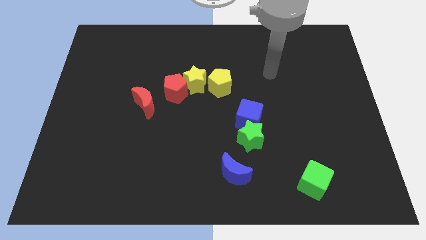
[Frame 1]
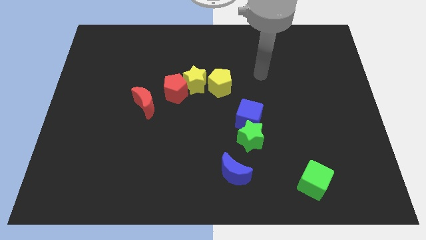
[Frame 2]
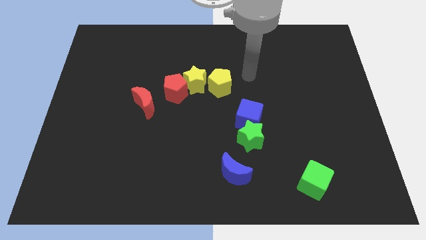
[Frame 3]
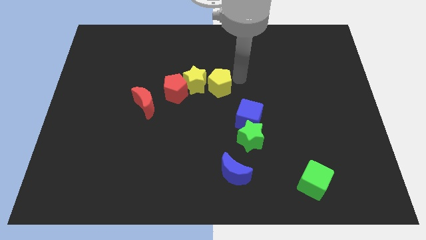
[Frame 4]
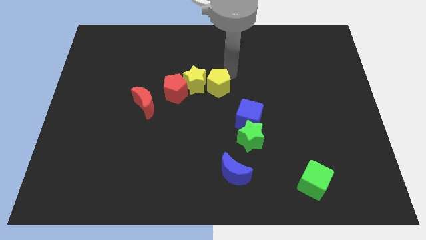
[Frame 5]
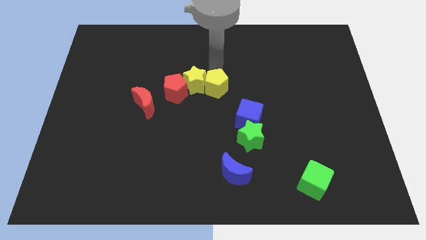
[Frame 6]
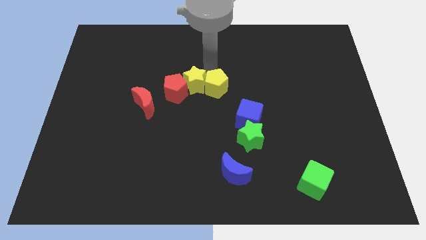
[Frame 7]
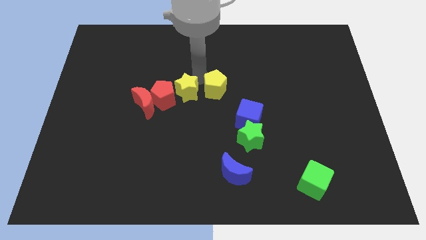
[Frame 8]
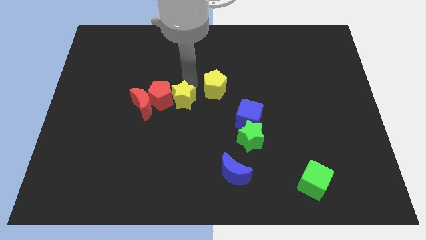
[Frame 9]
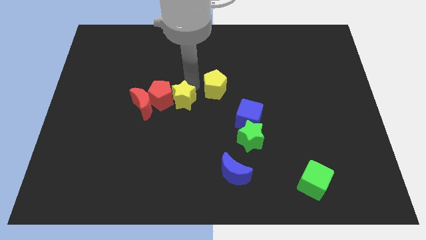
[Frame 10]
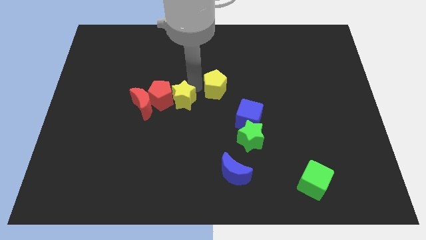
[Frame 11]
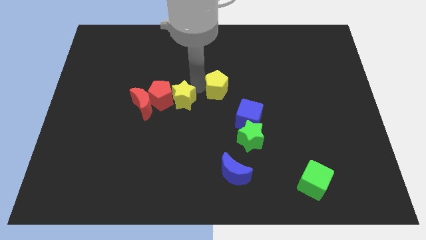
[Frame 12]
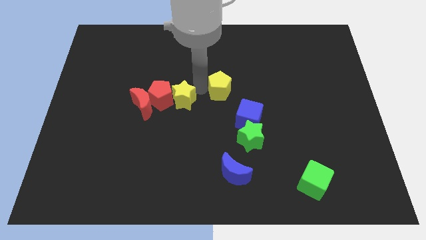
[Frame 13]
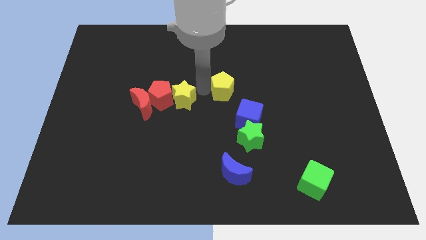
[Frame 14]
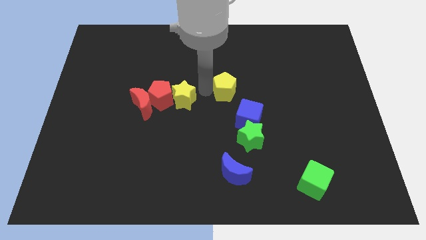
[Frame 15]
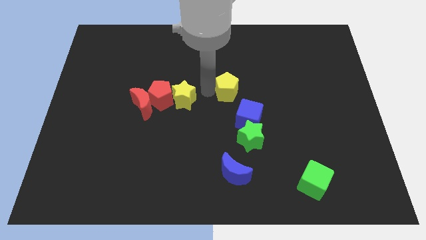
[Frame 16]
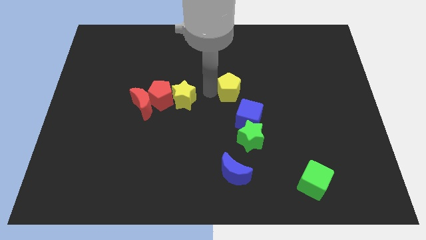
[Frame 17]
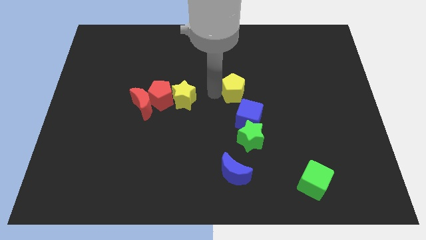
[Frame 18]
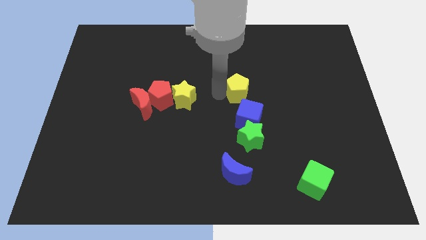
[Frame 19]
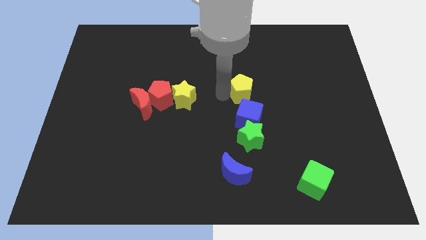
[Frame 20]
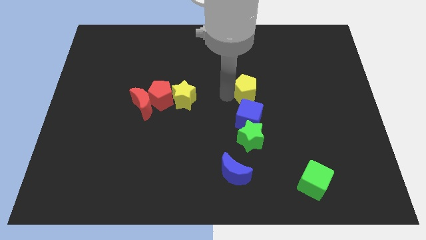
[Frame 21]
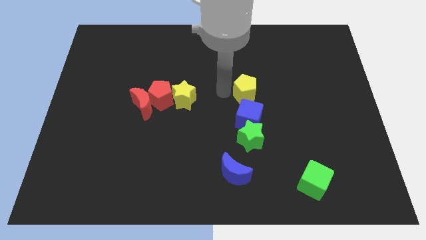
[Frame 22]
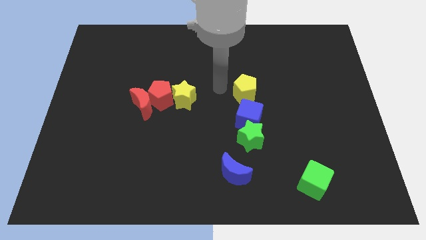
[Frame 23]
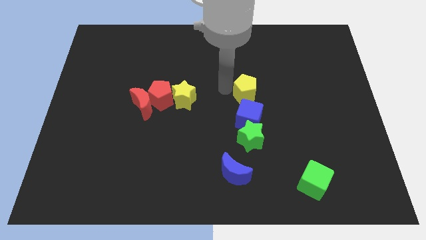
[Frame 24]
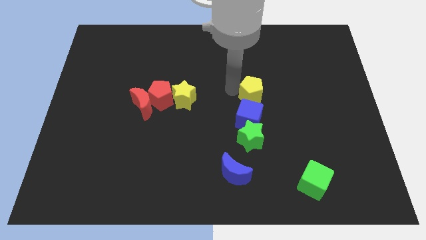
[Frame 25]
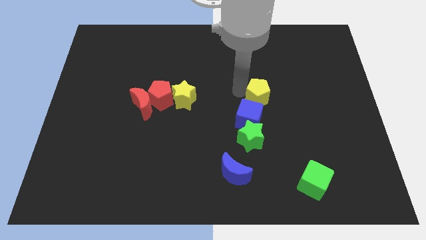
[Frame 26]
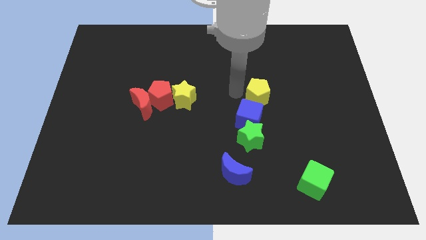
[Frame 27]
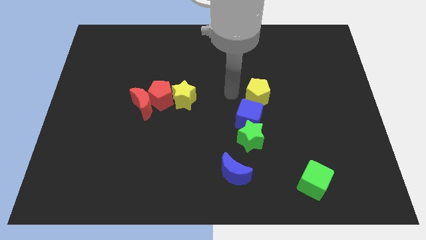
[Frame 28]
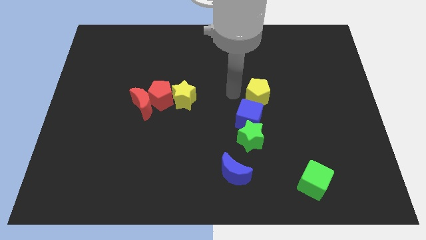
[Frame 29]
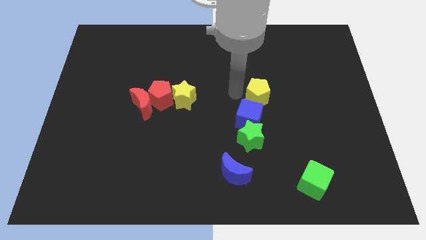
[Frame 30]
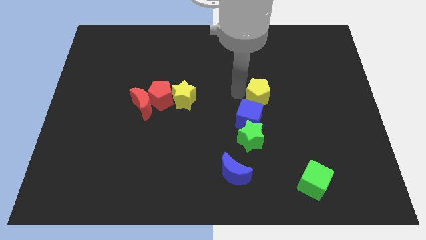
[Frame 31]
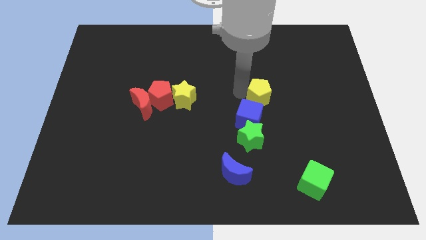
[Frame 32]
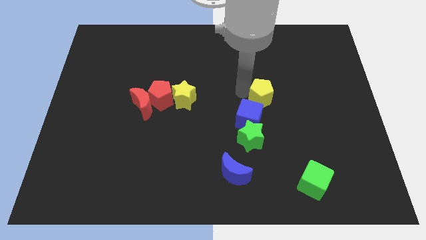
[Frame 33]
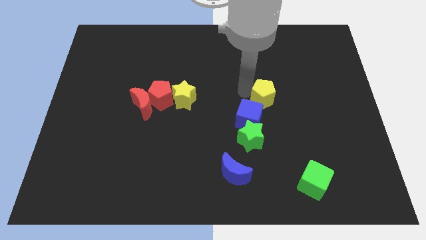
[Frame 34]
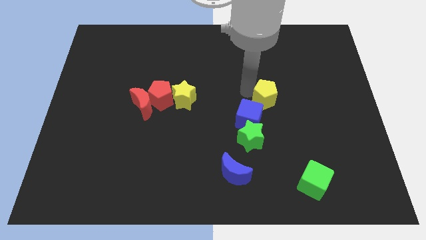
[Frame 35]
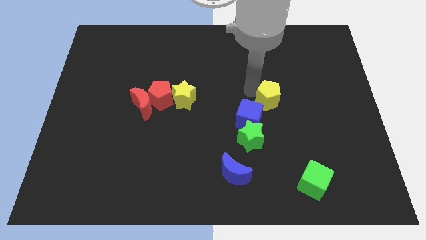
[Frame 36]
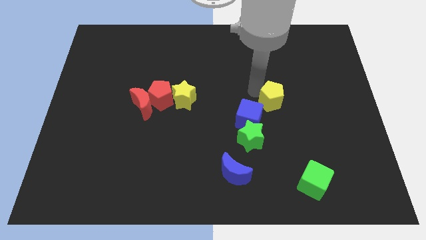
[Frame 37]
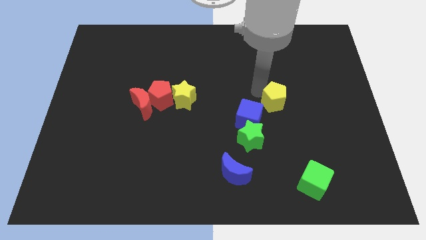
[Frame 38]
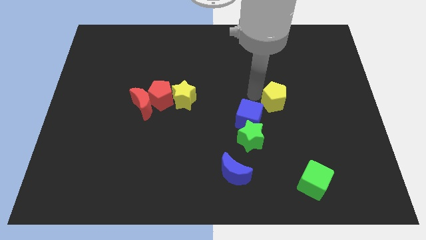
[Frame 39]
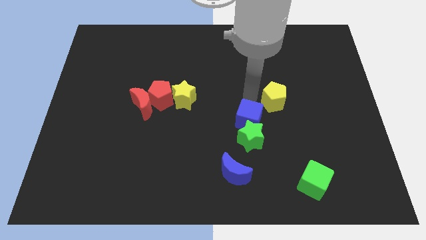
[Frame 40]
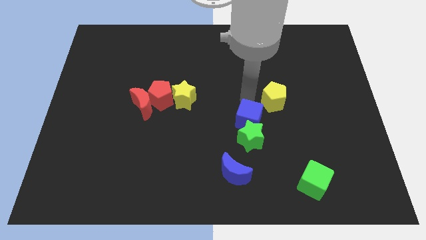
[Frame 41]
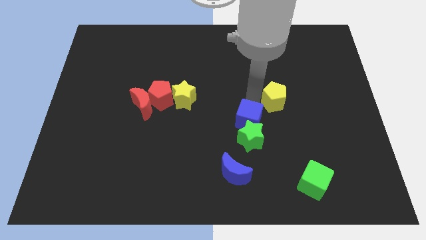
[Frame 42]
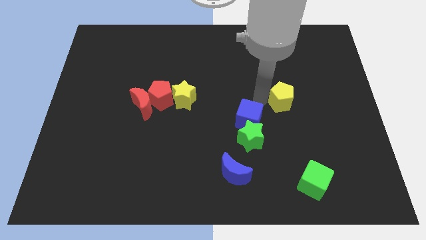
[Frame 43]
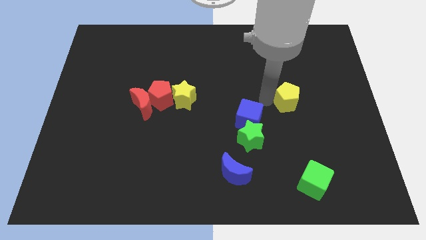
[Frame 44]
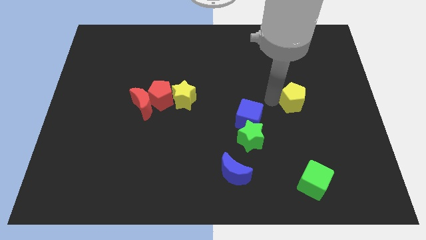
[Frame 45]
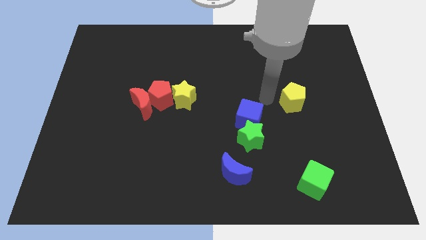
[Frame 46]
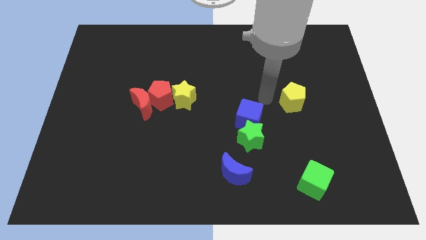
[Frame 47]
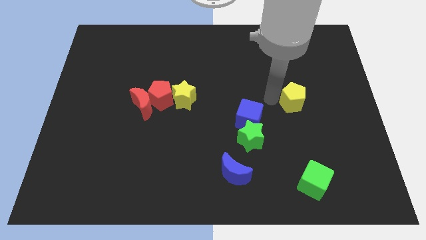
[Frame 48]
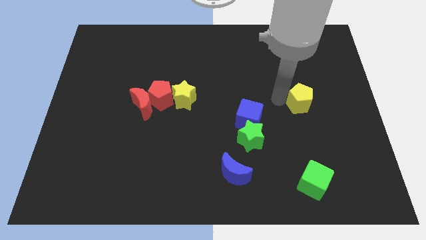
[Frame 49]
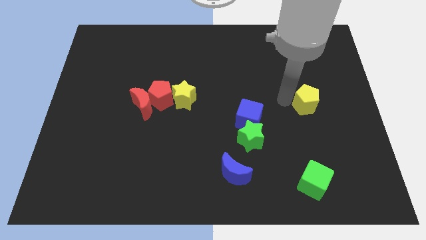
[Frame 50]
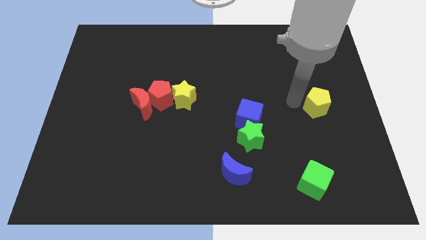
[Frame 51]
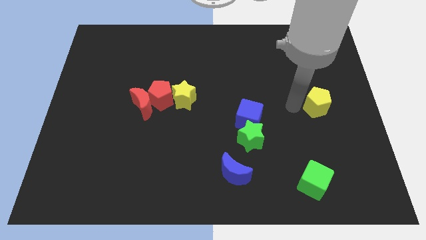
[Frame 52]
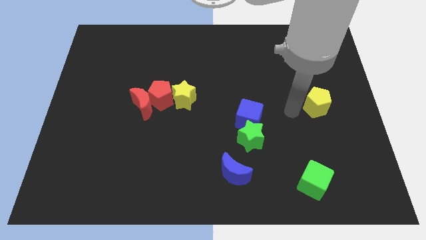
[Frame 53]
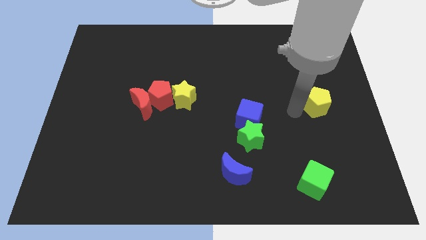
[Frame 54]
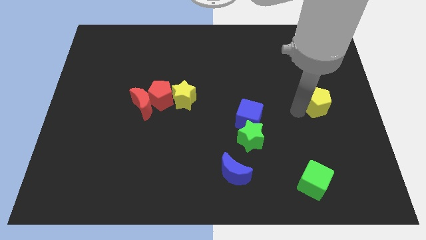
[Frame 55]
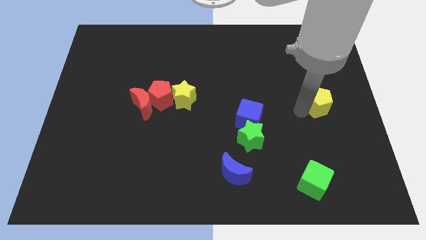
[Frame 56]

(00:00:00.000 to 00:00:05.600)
move the yellow pentagon to the center right

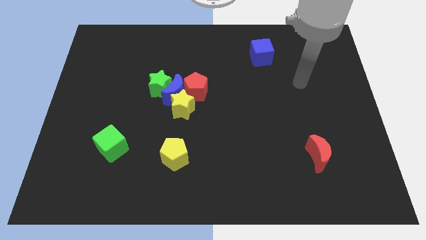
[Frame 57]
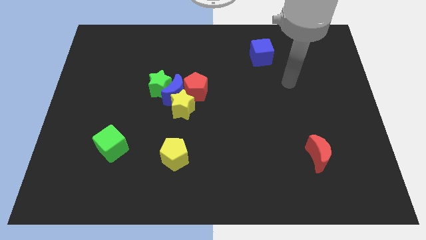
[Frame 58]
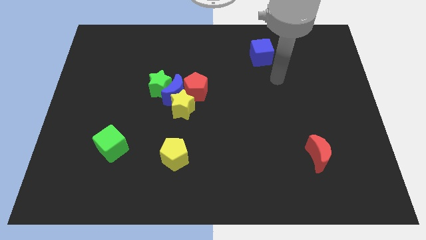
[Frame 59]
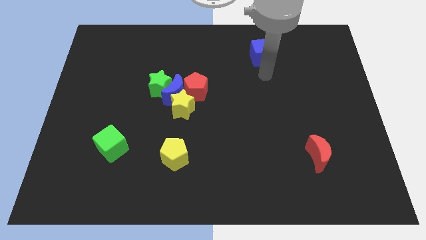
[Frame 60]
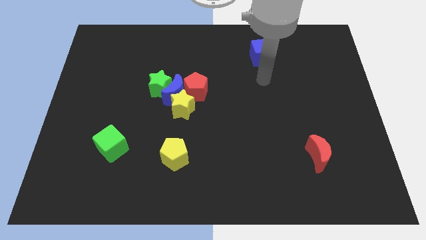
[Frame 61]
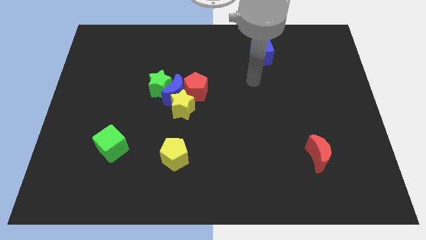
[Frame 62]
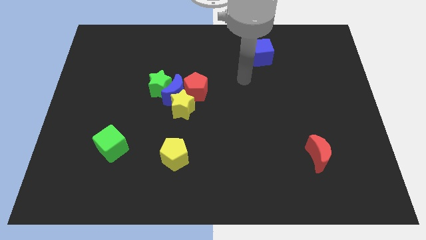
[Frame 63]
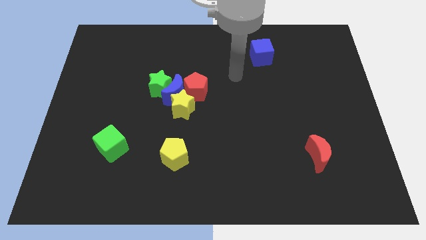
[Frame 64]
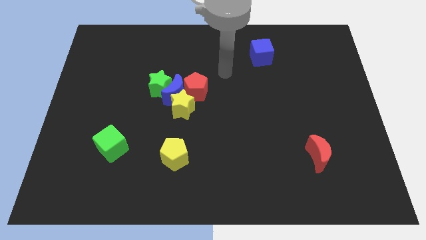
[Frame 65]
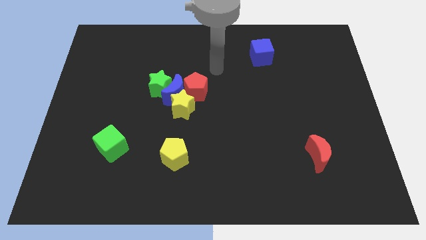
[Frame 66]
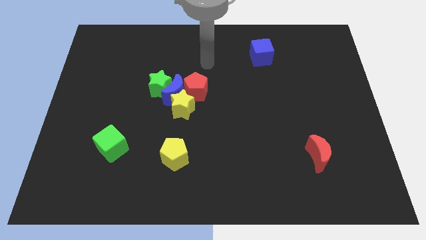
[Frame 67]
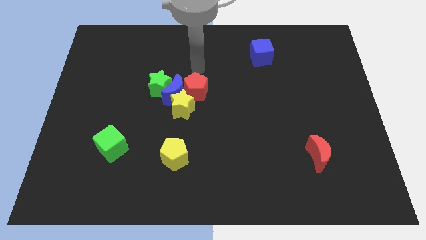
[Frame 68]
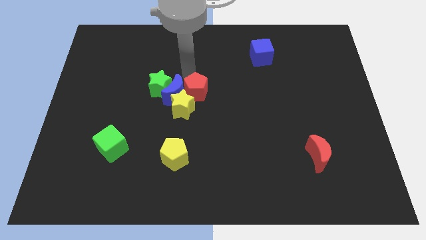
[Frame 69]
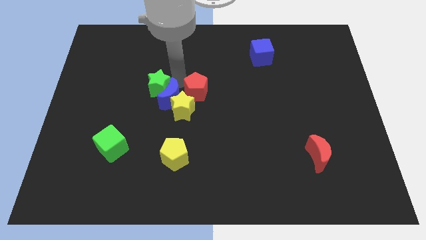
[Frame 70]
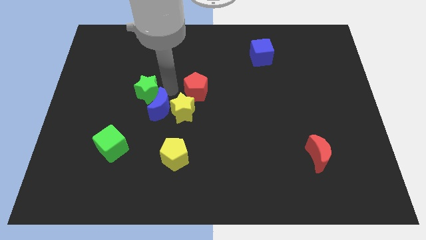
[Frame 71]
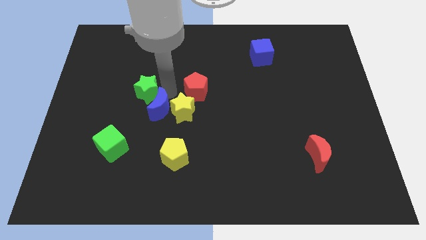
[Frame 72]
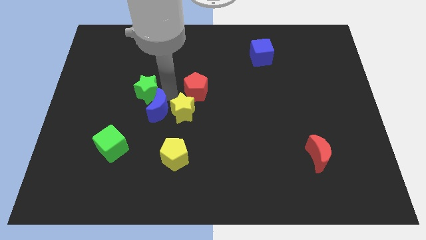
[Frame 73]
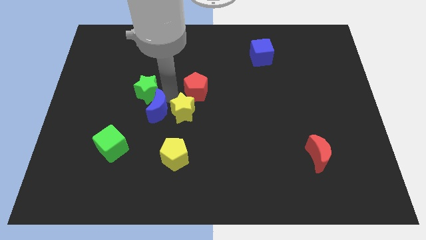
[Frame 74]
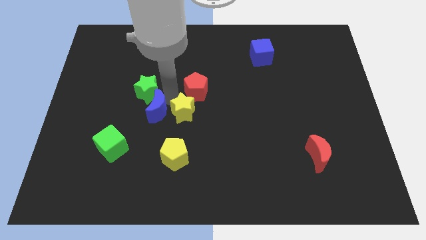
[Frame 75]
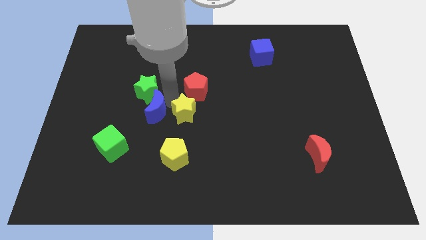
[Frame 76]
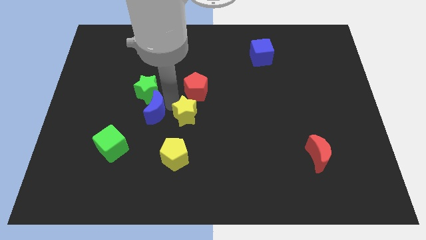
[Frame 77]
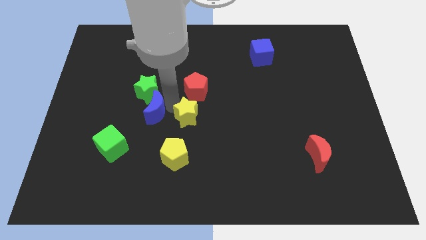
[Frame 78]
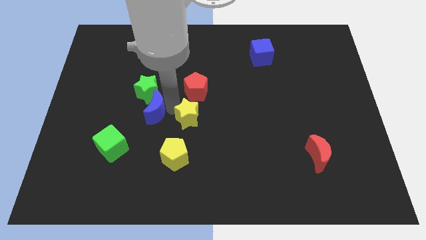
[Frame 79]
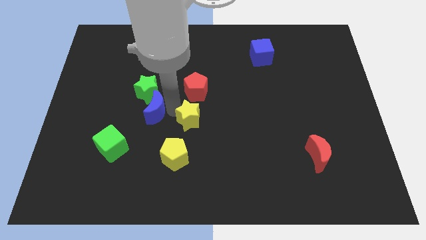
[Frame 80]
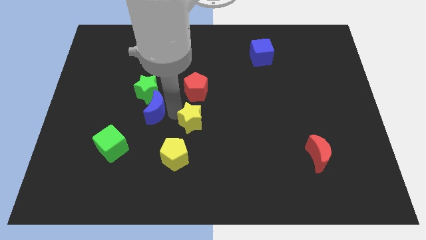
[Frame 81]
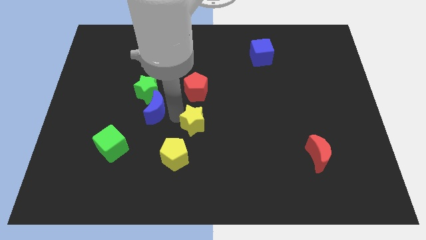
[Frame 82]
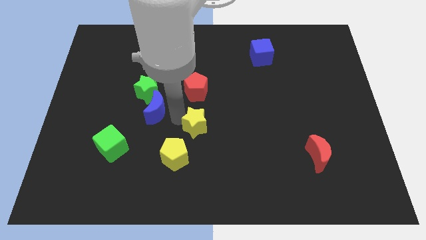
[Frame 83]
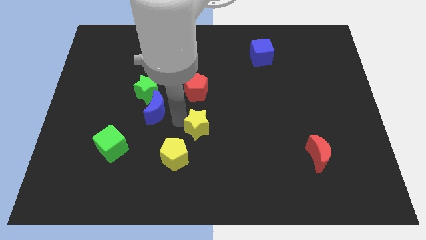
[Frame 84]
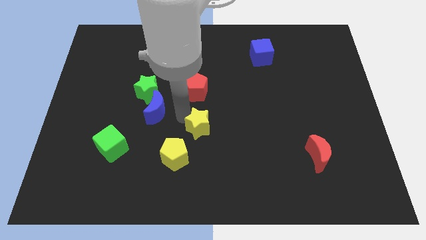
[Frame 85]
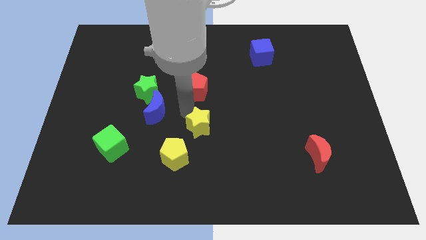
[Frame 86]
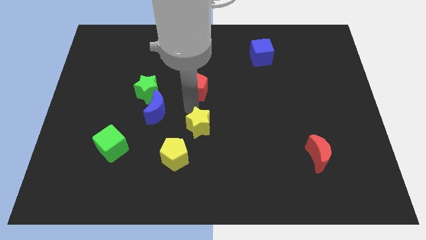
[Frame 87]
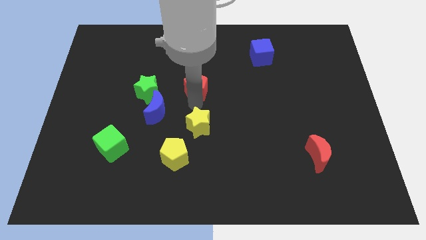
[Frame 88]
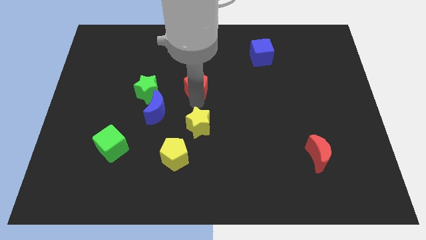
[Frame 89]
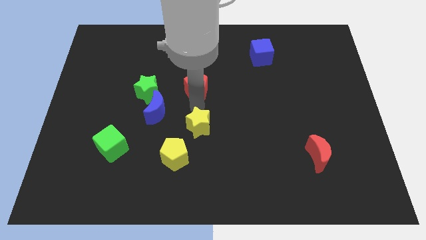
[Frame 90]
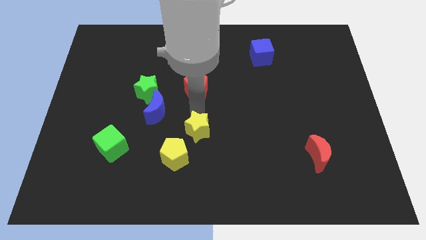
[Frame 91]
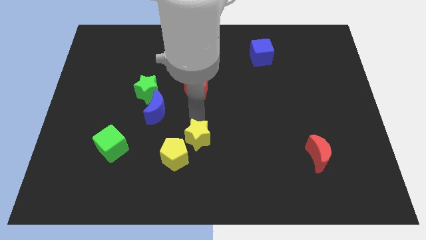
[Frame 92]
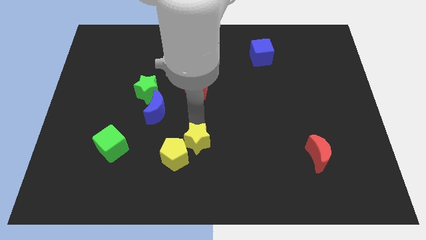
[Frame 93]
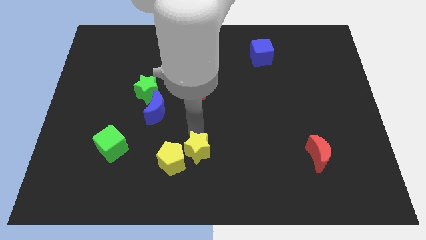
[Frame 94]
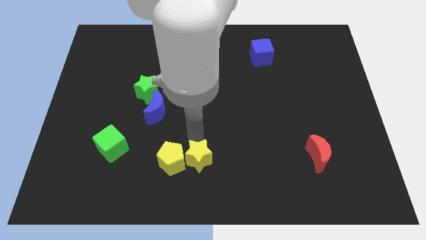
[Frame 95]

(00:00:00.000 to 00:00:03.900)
move the yellow star to the bottom
